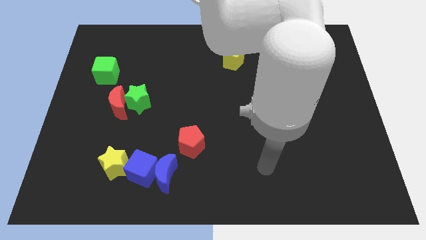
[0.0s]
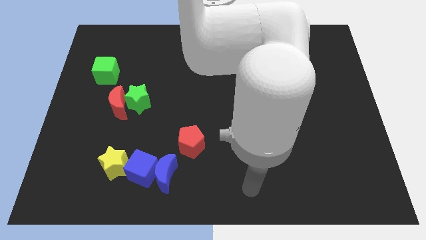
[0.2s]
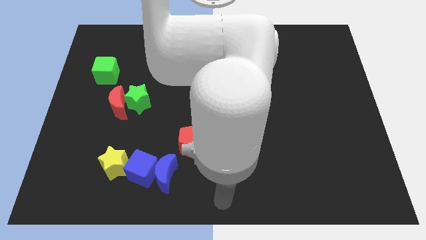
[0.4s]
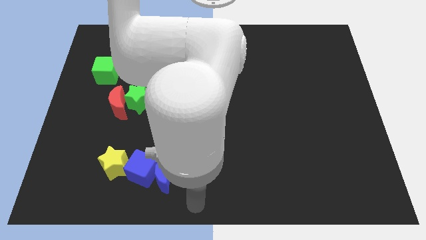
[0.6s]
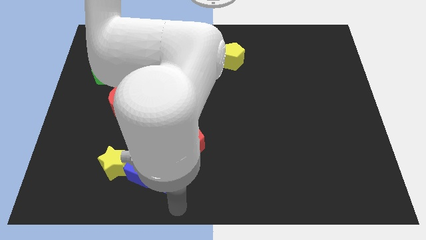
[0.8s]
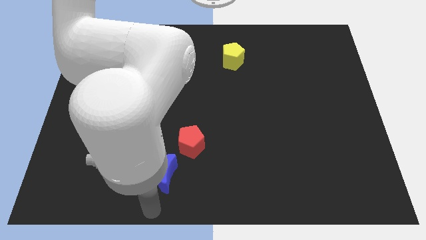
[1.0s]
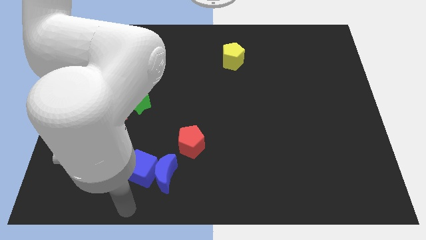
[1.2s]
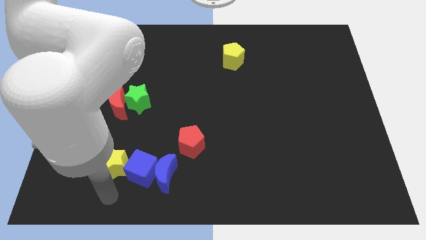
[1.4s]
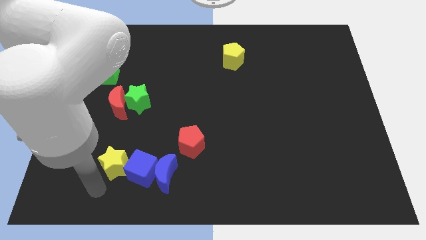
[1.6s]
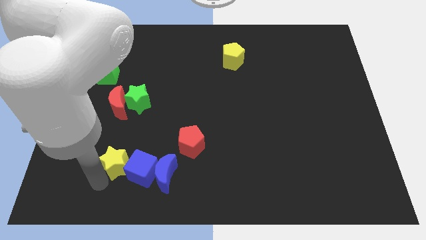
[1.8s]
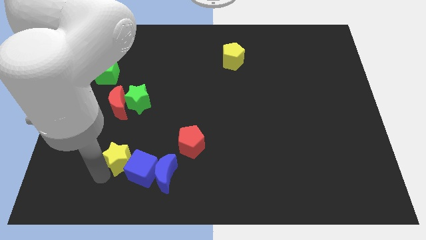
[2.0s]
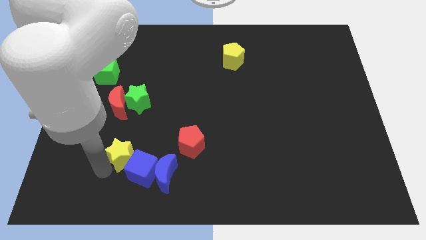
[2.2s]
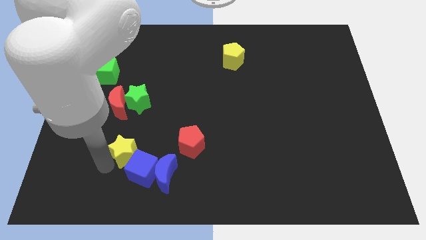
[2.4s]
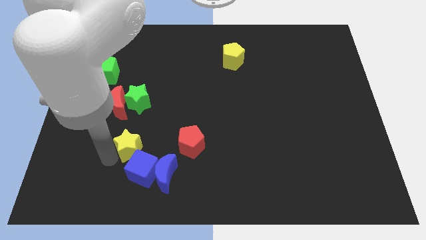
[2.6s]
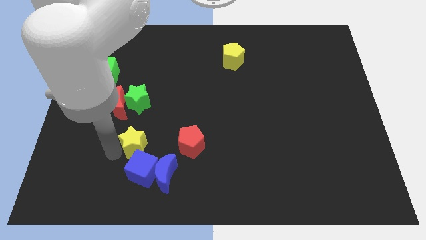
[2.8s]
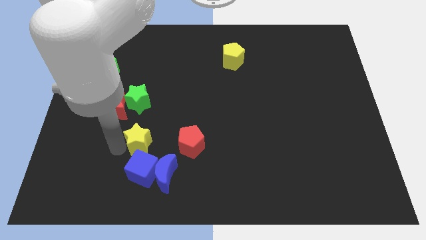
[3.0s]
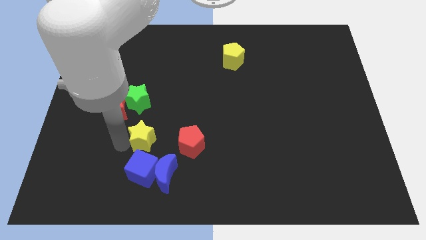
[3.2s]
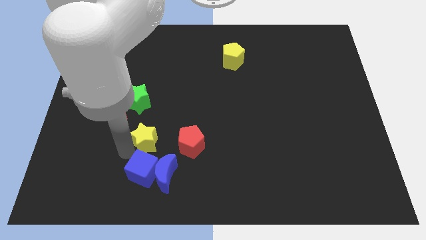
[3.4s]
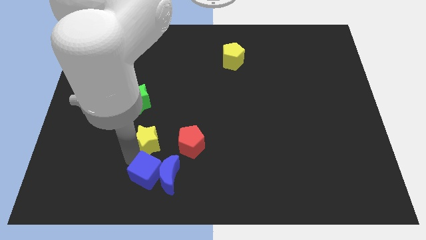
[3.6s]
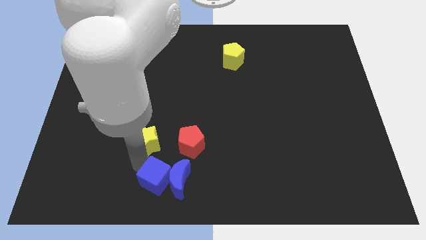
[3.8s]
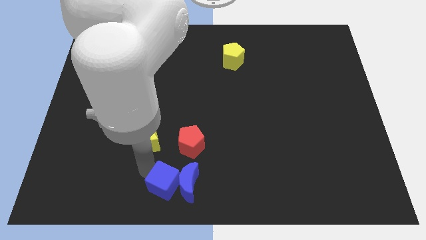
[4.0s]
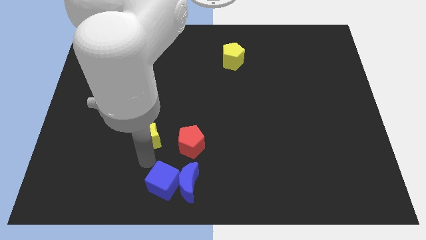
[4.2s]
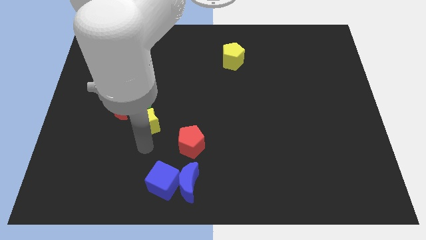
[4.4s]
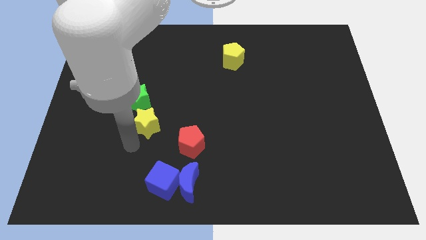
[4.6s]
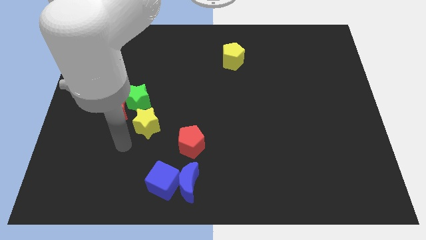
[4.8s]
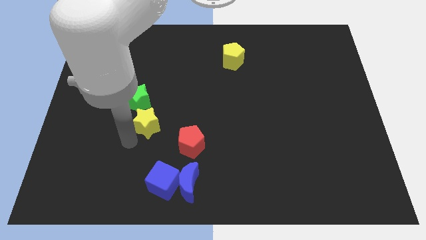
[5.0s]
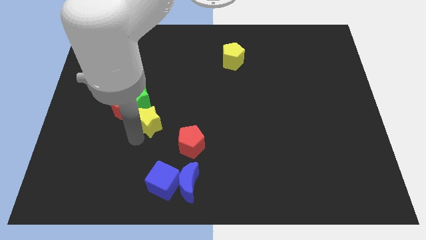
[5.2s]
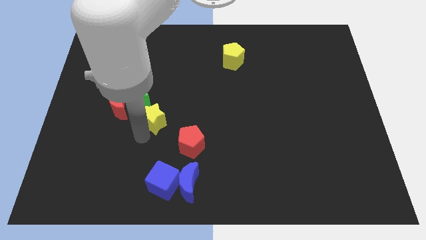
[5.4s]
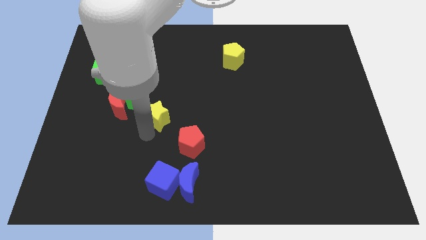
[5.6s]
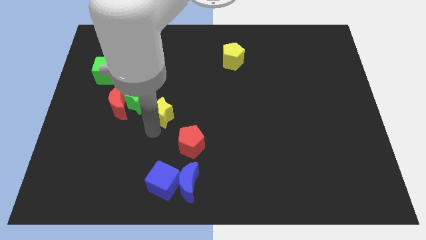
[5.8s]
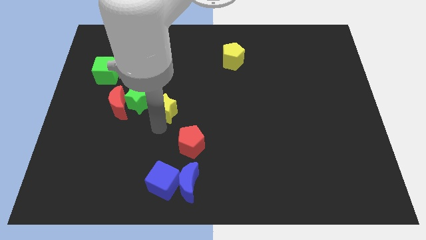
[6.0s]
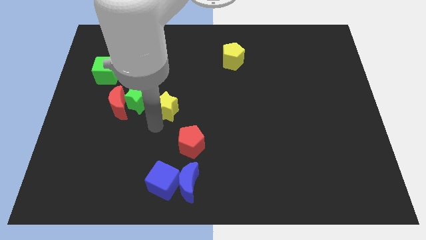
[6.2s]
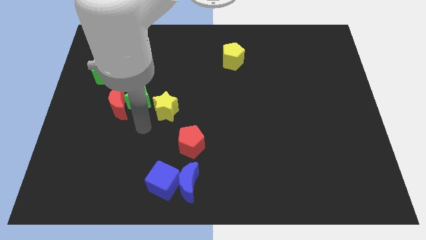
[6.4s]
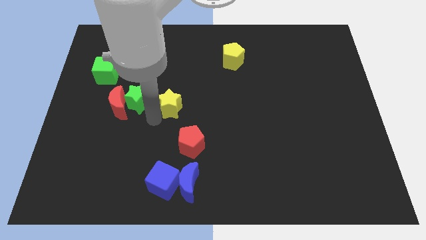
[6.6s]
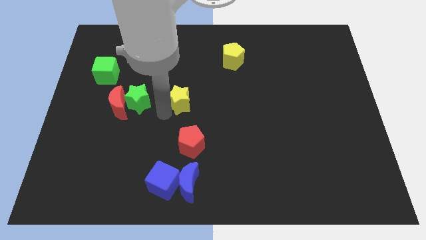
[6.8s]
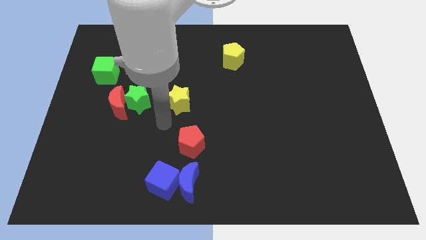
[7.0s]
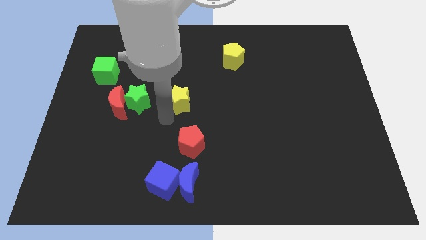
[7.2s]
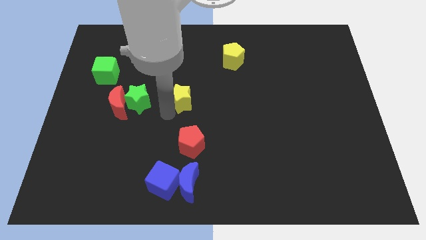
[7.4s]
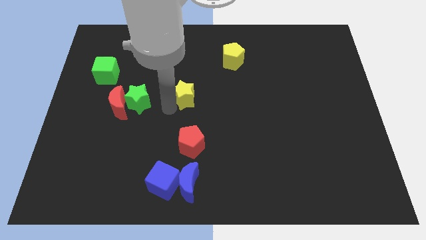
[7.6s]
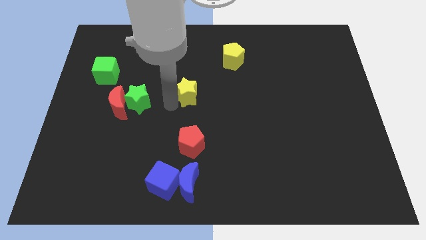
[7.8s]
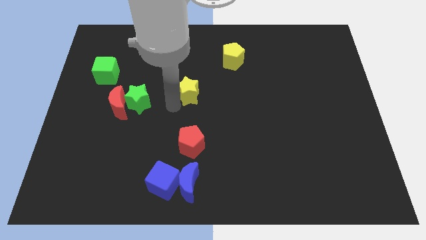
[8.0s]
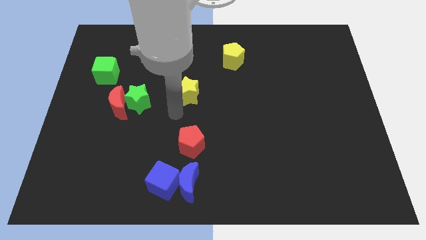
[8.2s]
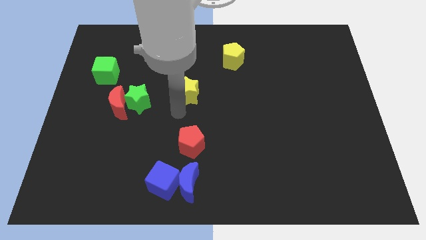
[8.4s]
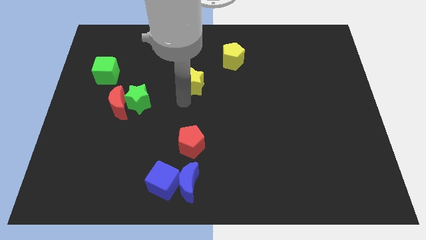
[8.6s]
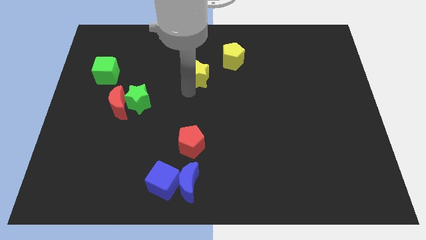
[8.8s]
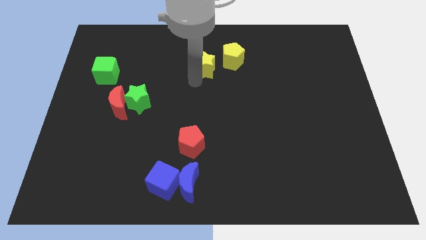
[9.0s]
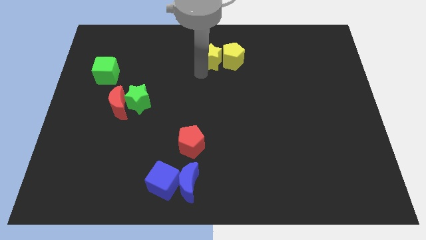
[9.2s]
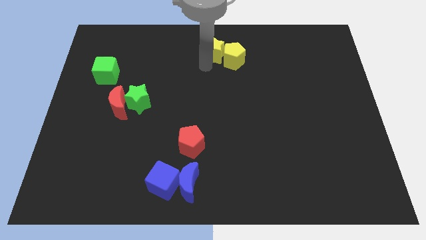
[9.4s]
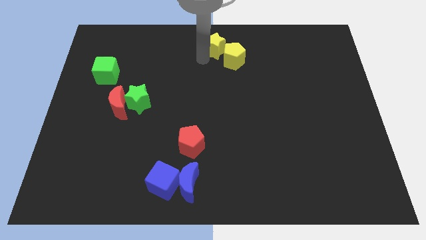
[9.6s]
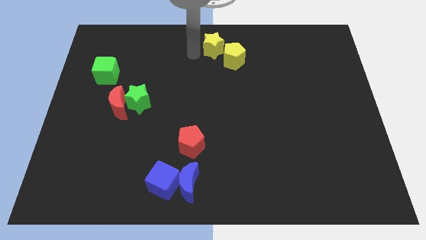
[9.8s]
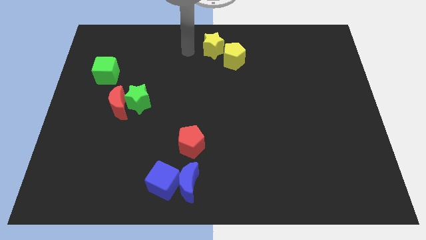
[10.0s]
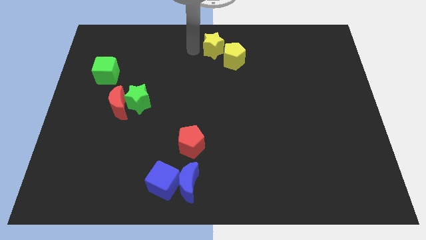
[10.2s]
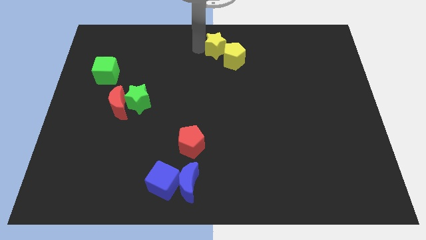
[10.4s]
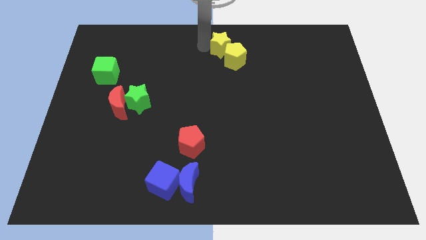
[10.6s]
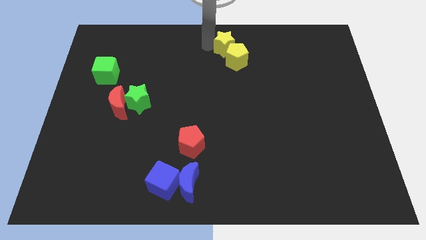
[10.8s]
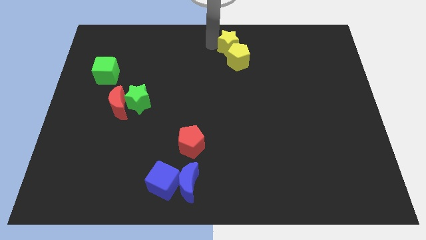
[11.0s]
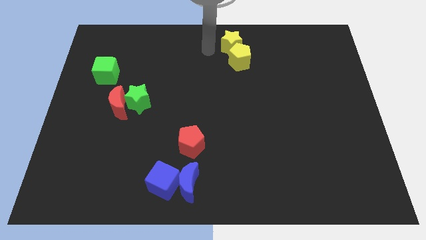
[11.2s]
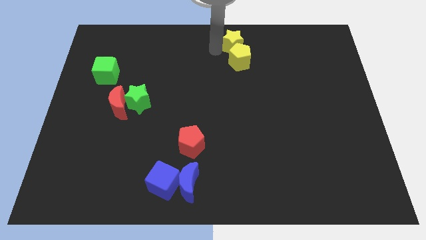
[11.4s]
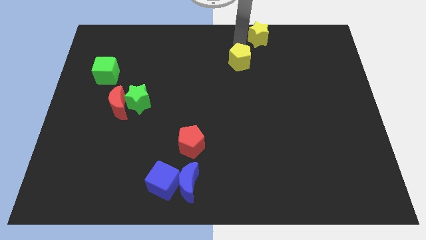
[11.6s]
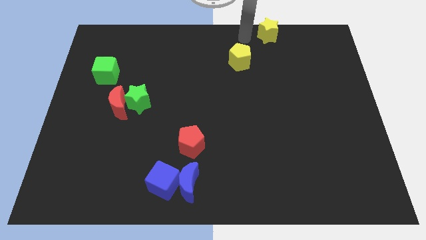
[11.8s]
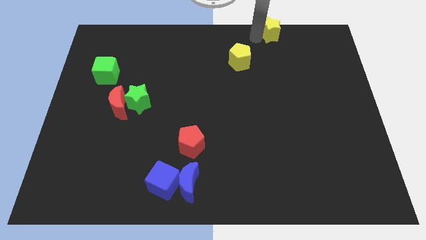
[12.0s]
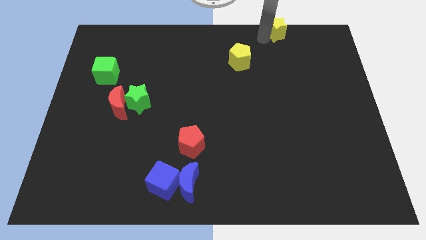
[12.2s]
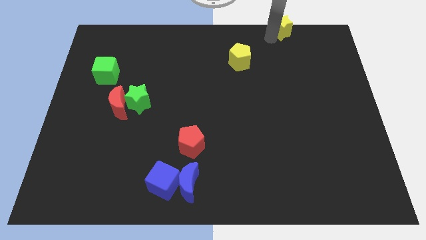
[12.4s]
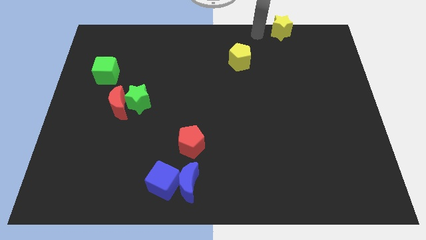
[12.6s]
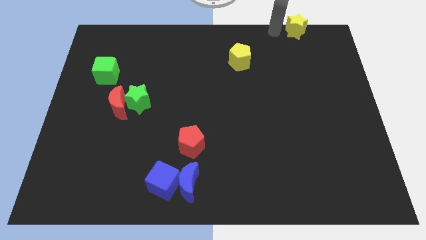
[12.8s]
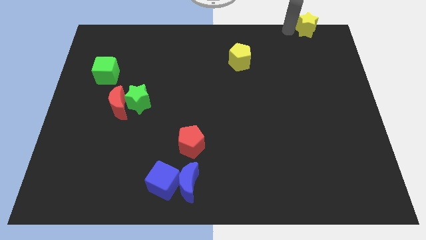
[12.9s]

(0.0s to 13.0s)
put the yellow star to the top right corner
